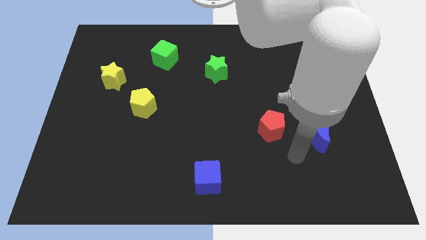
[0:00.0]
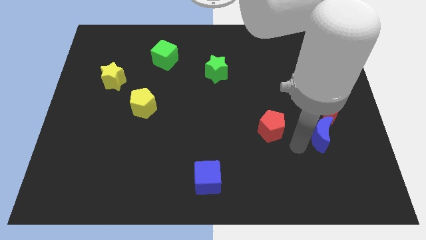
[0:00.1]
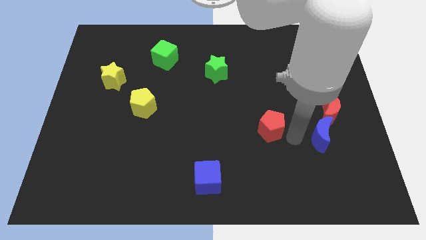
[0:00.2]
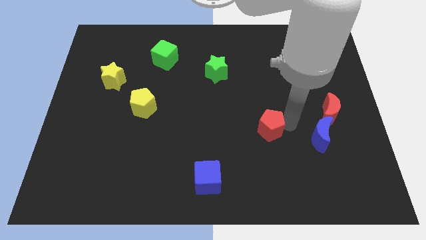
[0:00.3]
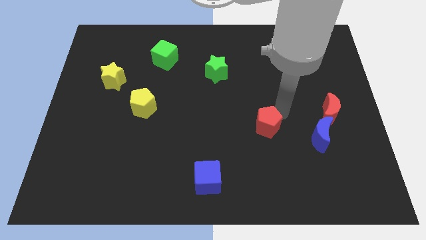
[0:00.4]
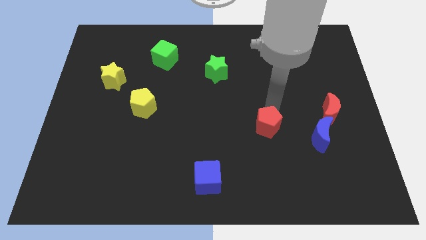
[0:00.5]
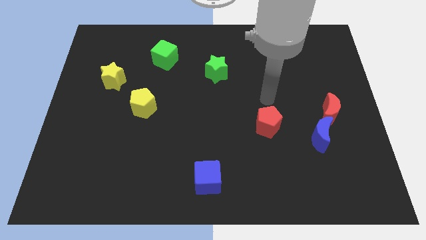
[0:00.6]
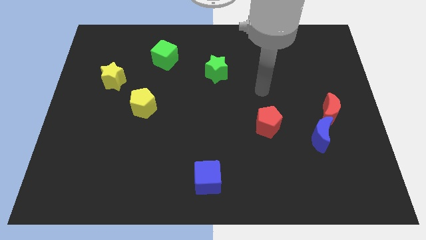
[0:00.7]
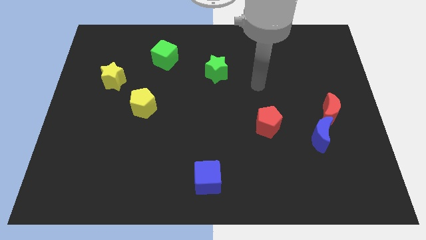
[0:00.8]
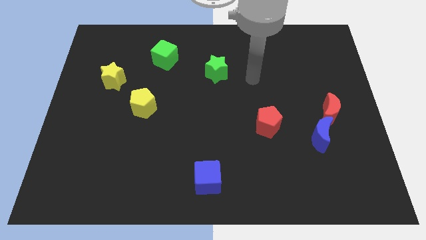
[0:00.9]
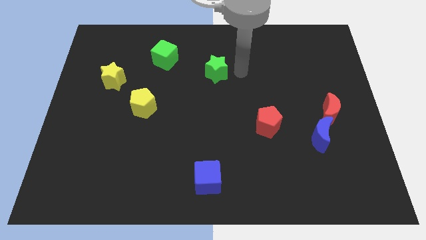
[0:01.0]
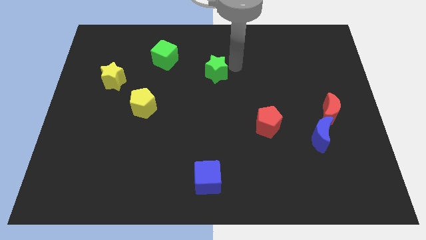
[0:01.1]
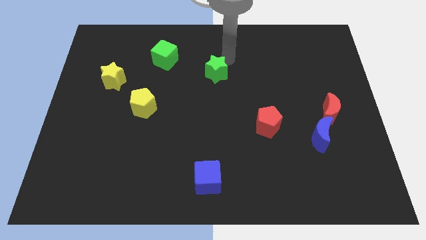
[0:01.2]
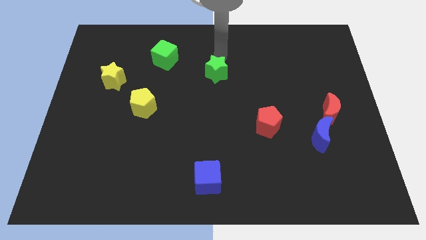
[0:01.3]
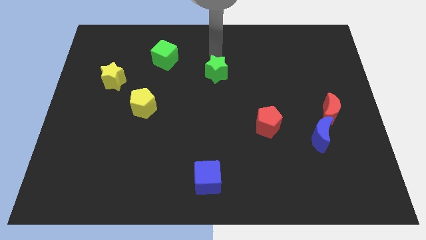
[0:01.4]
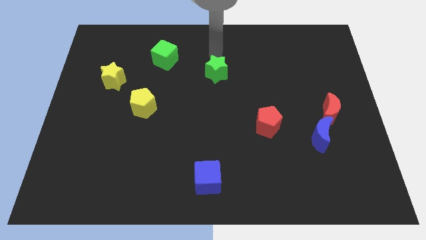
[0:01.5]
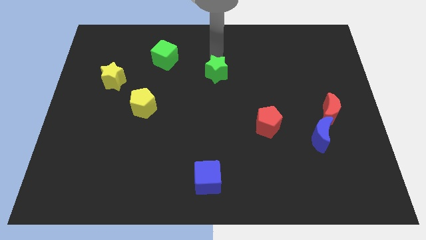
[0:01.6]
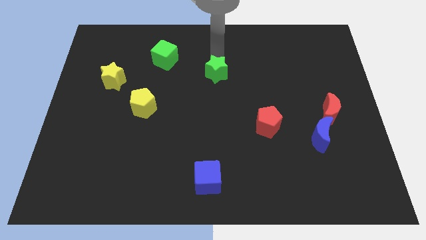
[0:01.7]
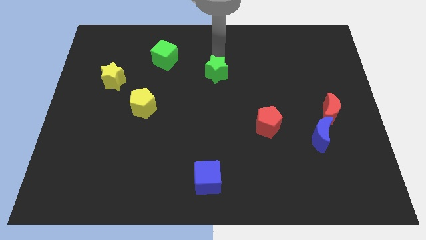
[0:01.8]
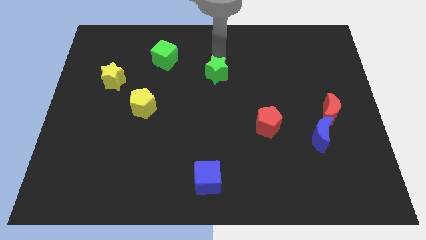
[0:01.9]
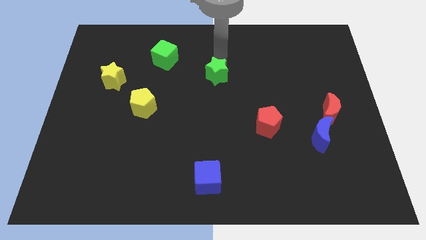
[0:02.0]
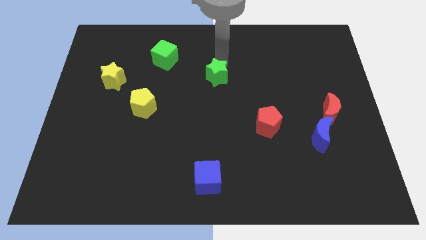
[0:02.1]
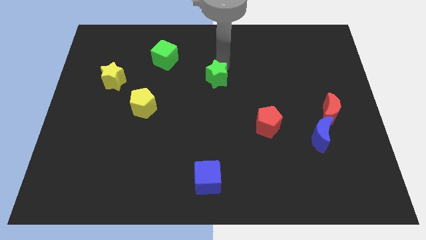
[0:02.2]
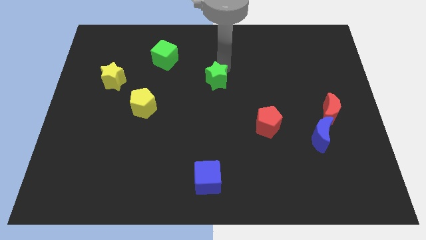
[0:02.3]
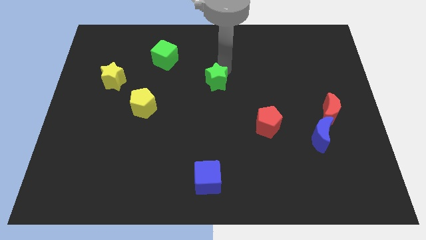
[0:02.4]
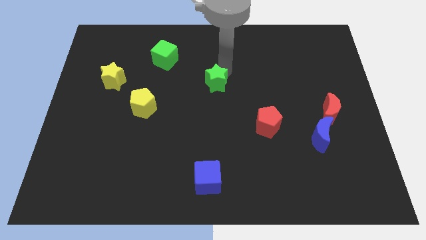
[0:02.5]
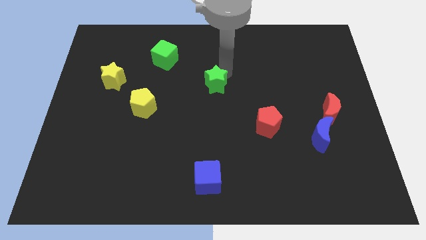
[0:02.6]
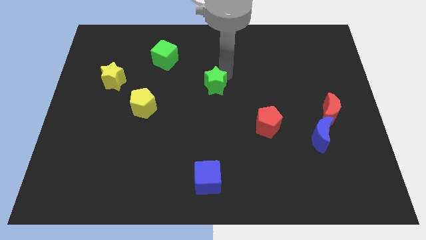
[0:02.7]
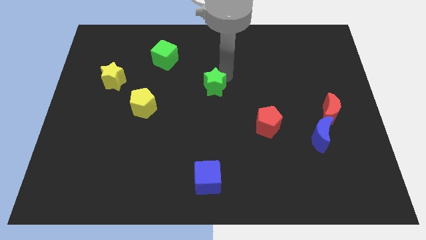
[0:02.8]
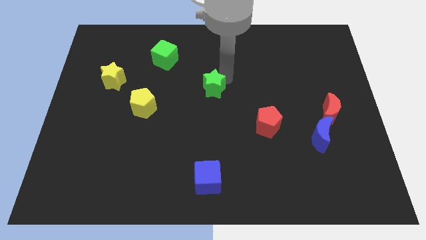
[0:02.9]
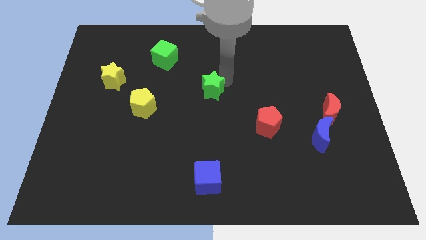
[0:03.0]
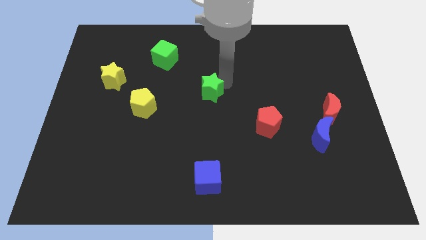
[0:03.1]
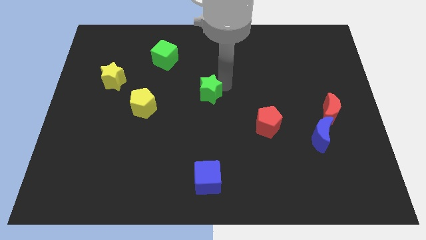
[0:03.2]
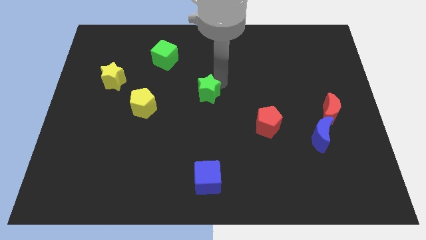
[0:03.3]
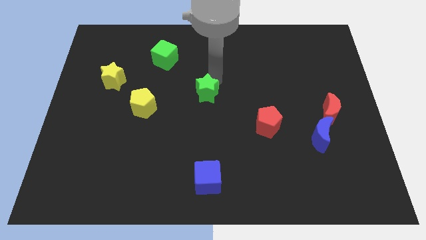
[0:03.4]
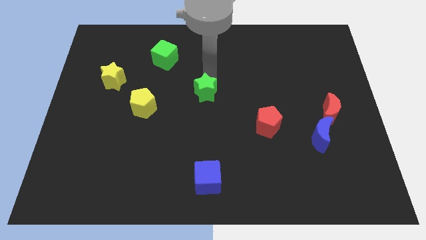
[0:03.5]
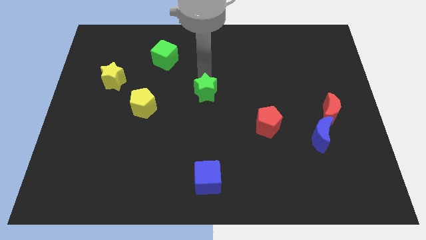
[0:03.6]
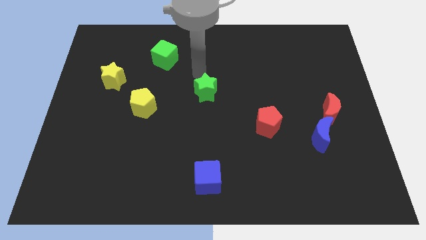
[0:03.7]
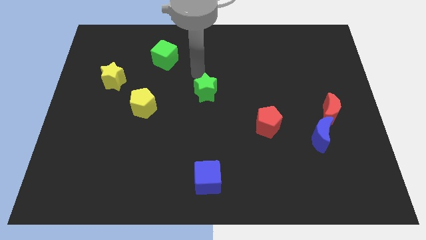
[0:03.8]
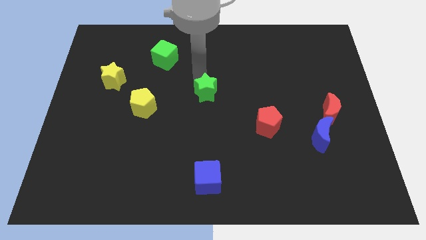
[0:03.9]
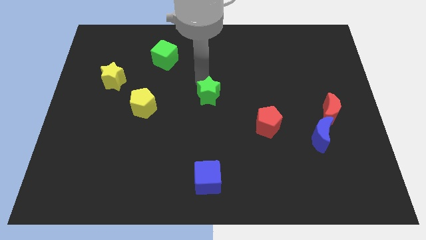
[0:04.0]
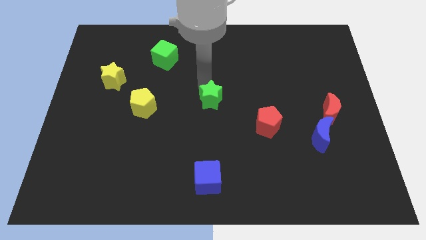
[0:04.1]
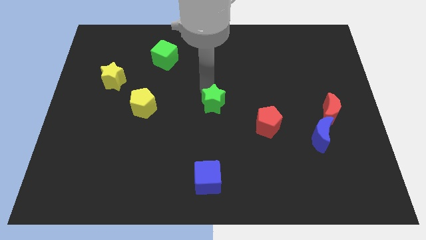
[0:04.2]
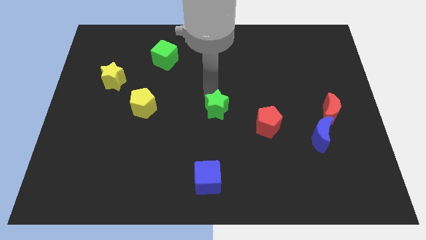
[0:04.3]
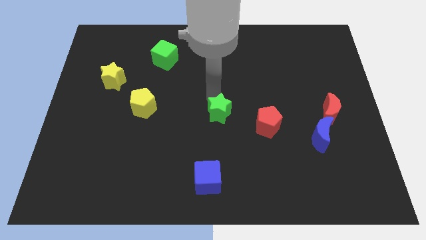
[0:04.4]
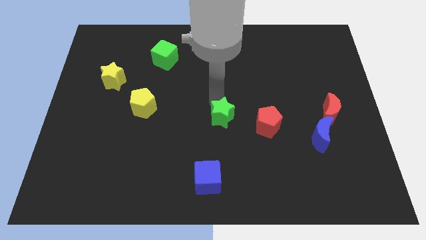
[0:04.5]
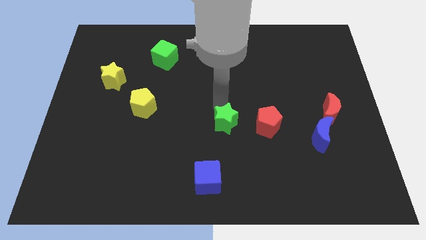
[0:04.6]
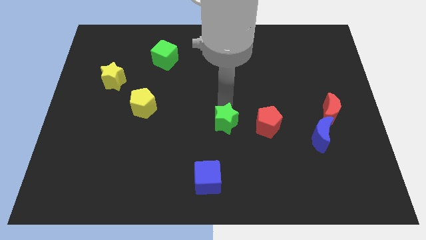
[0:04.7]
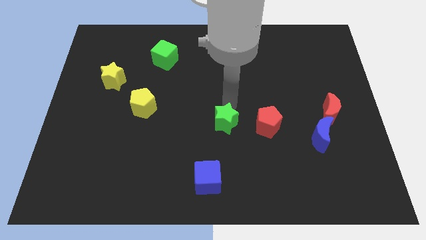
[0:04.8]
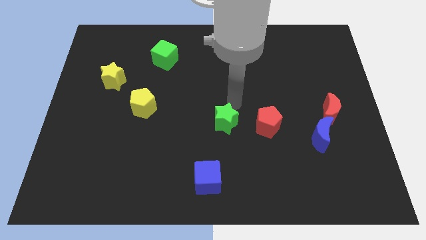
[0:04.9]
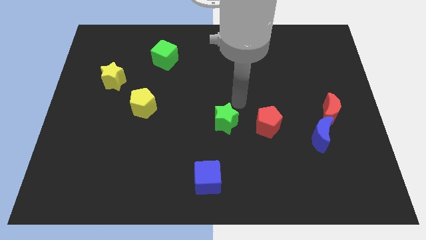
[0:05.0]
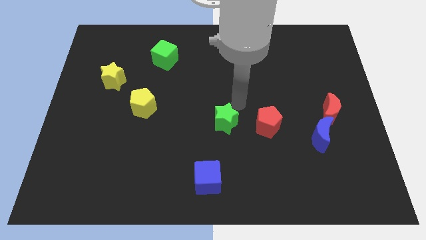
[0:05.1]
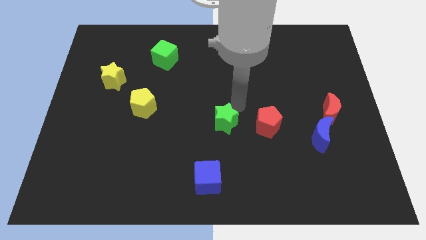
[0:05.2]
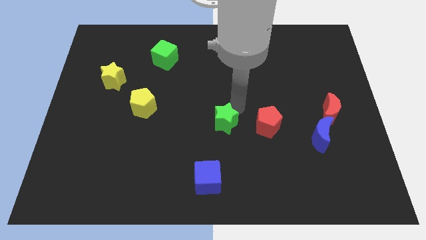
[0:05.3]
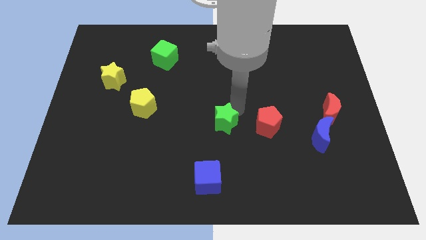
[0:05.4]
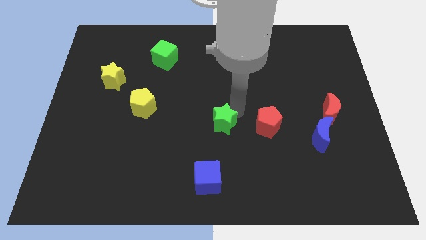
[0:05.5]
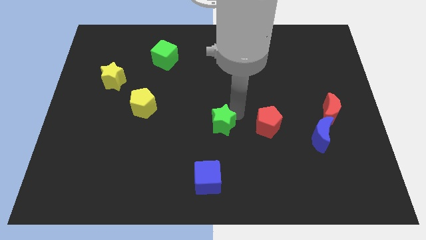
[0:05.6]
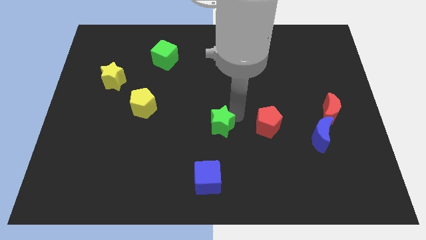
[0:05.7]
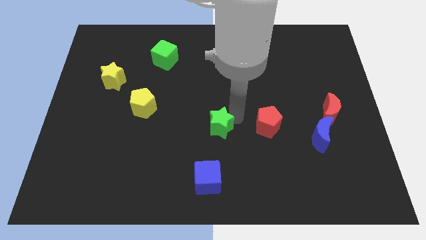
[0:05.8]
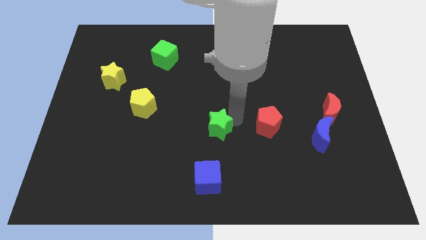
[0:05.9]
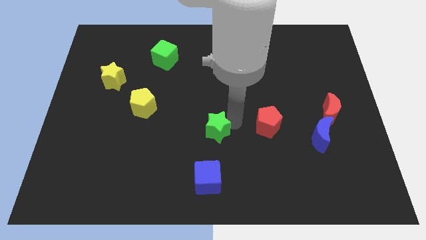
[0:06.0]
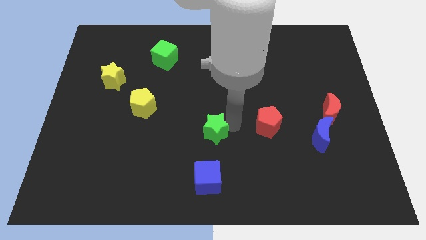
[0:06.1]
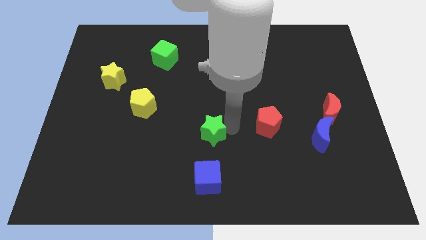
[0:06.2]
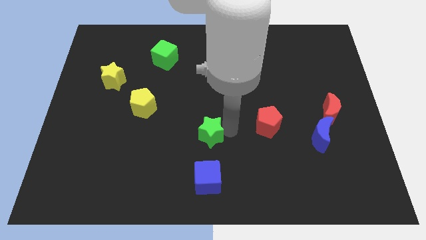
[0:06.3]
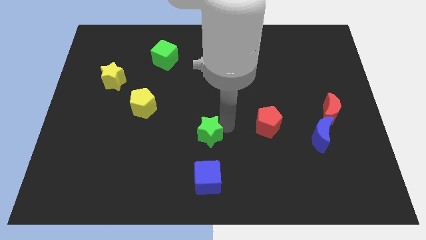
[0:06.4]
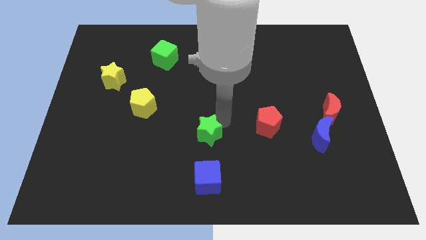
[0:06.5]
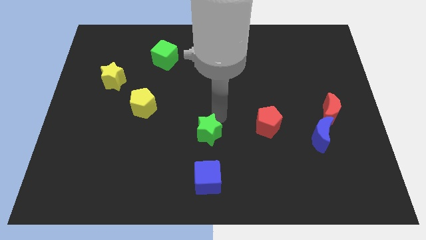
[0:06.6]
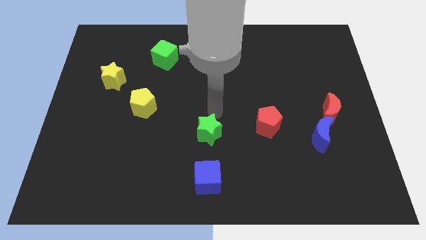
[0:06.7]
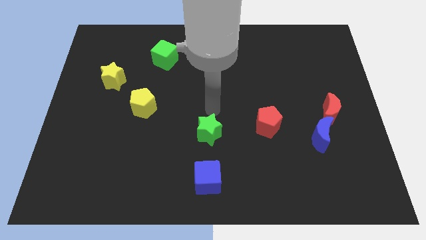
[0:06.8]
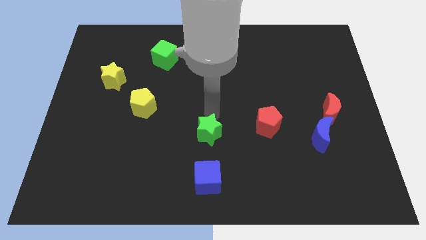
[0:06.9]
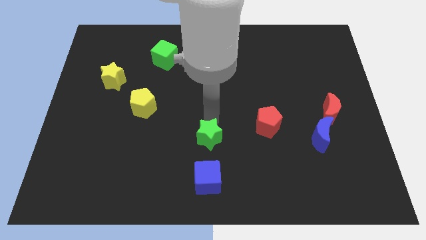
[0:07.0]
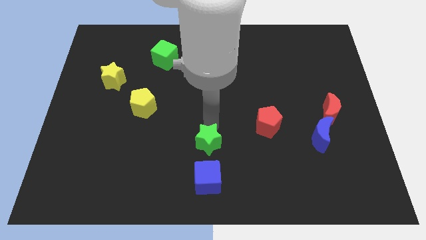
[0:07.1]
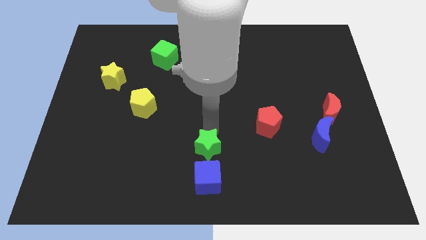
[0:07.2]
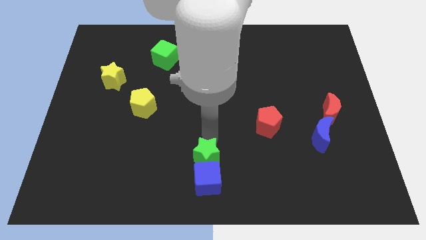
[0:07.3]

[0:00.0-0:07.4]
move the green star close to the blue cube
